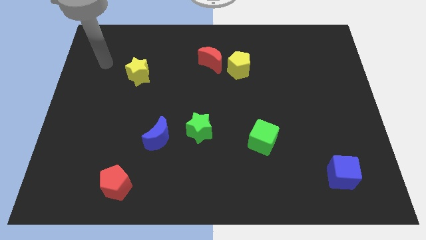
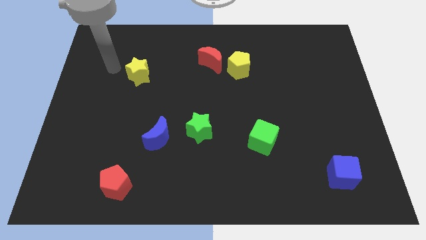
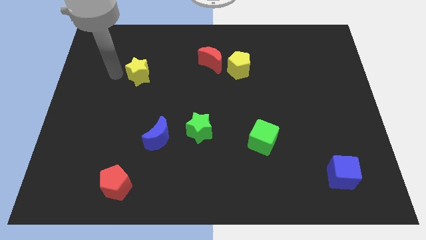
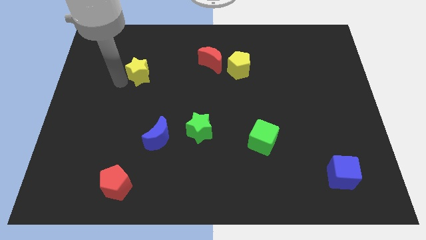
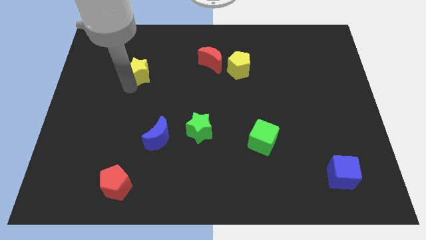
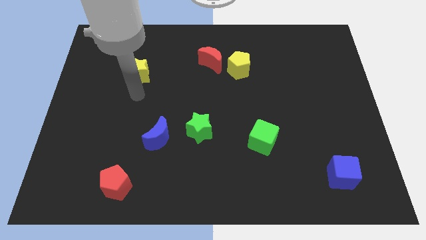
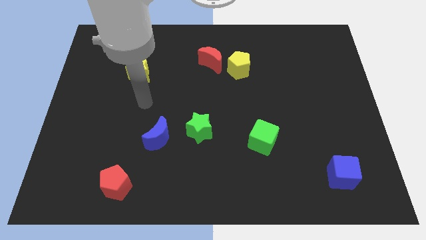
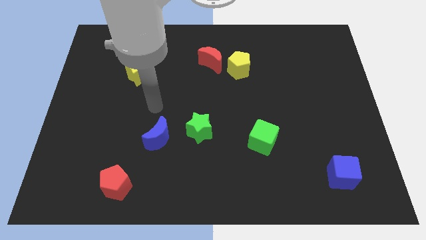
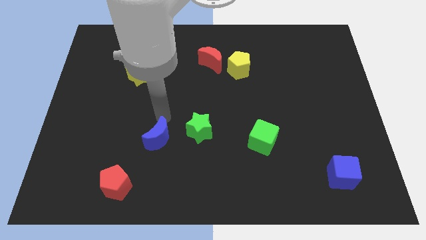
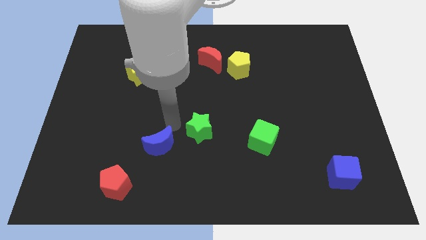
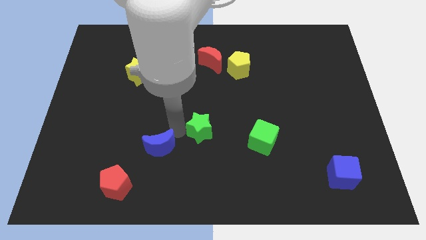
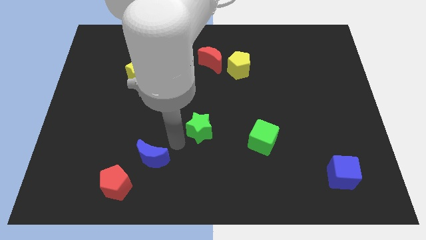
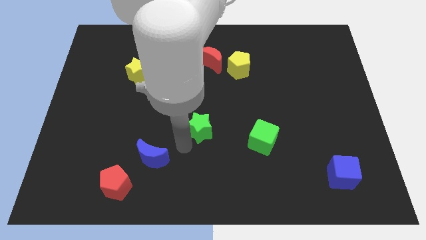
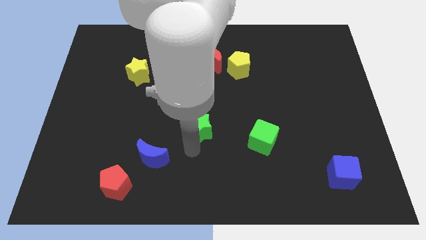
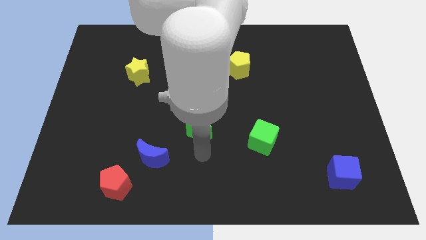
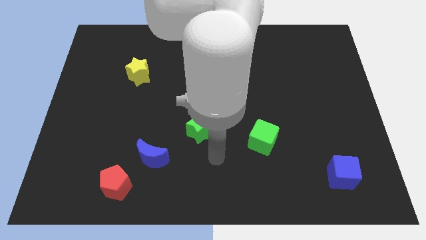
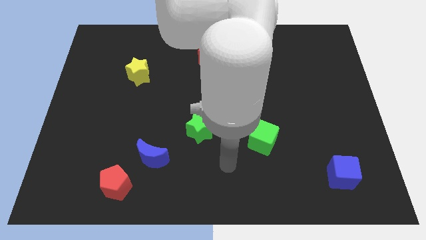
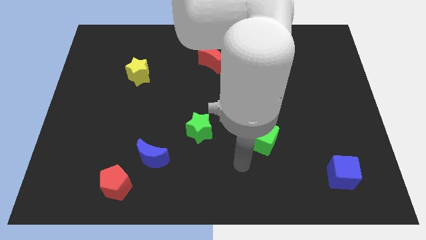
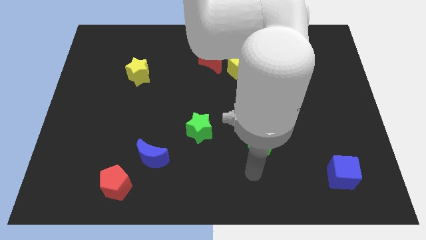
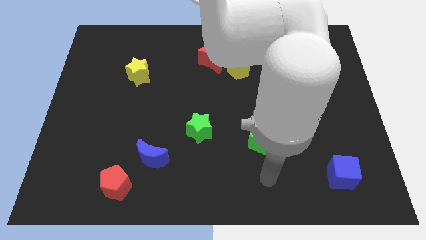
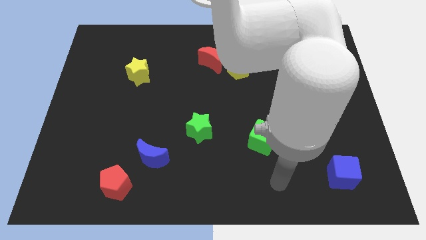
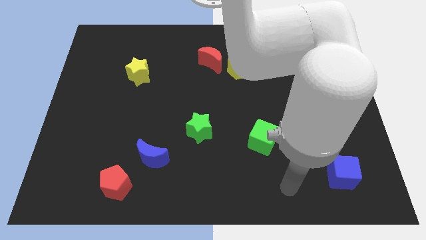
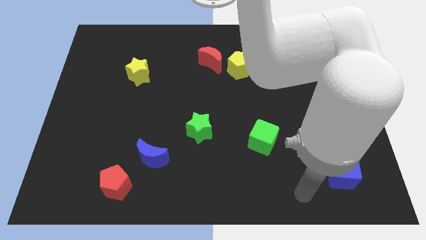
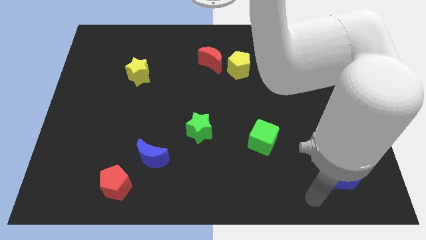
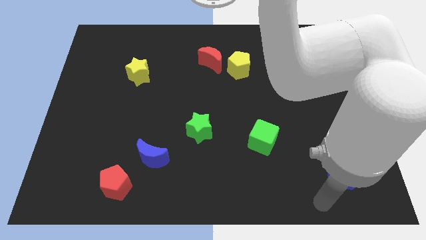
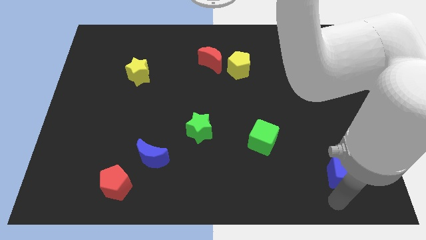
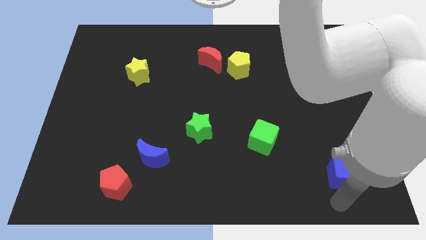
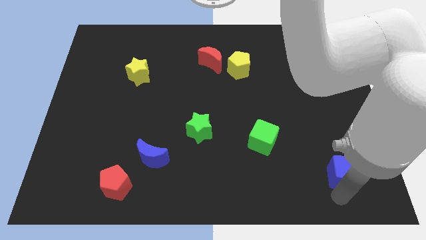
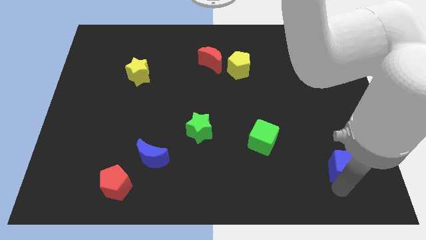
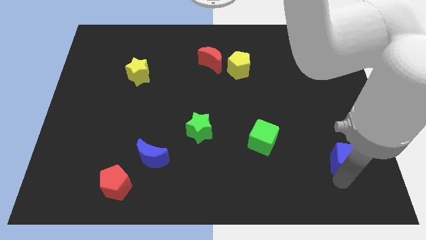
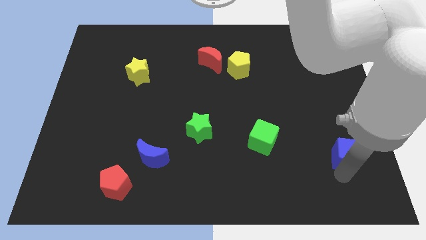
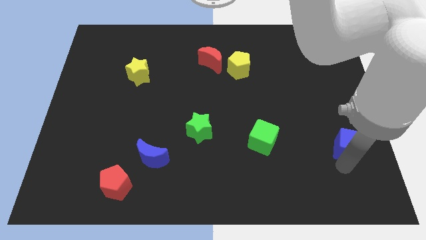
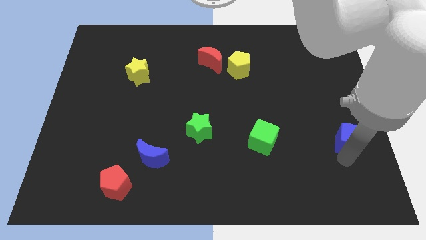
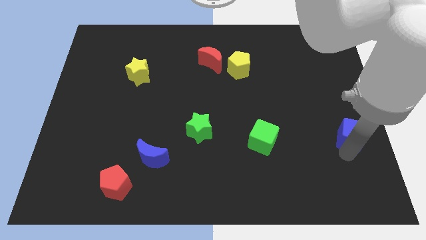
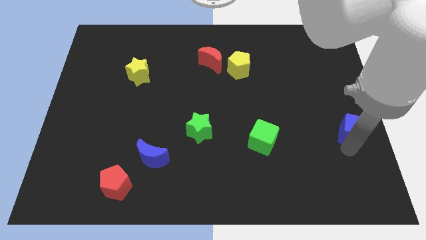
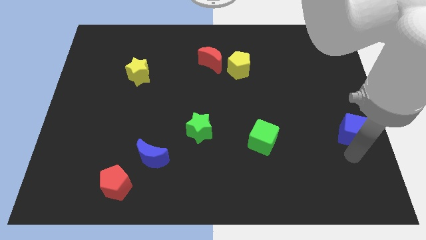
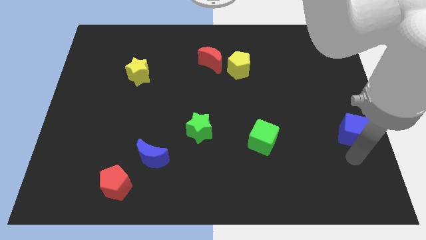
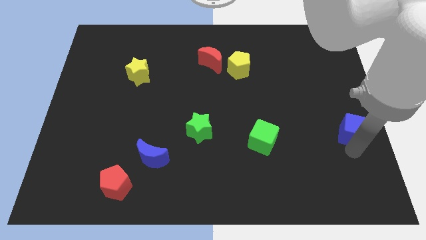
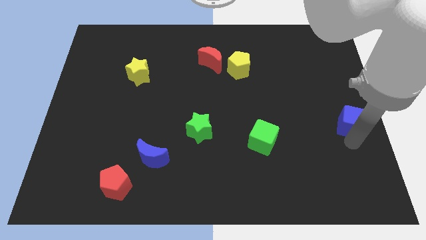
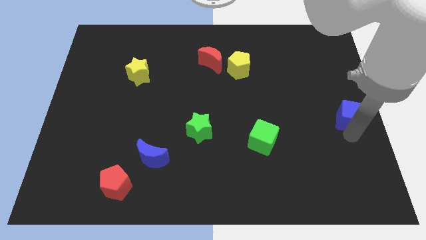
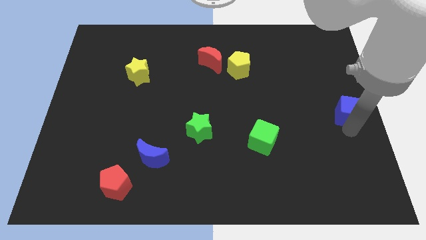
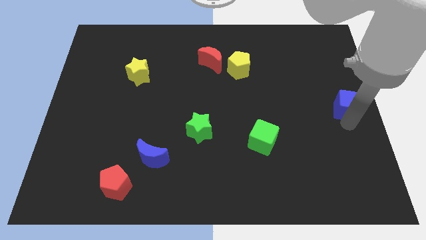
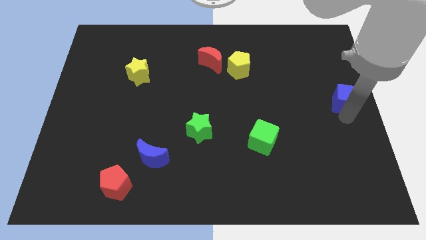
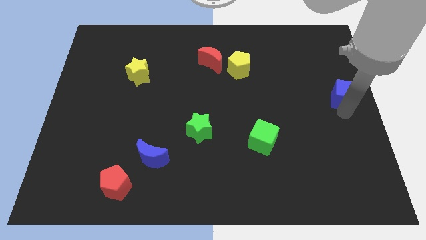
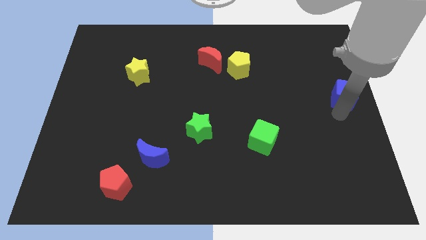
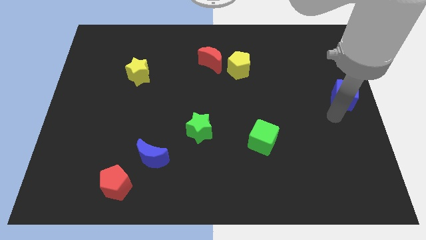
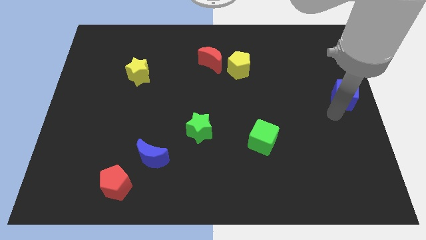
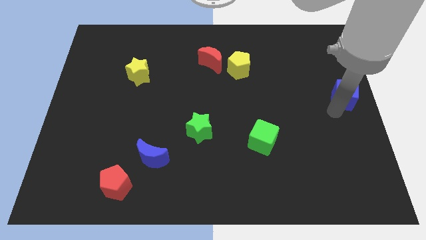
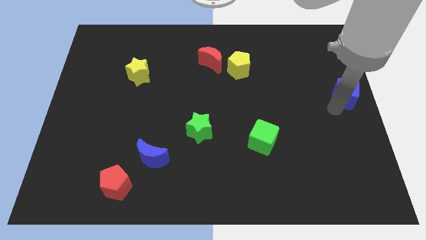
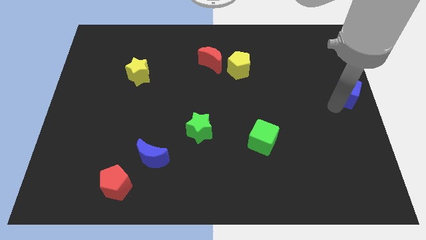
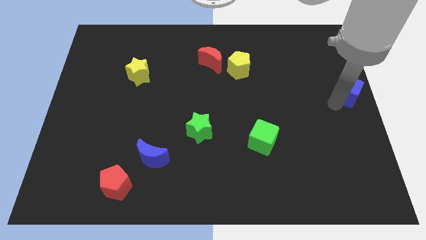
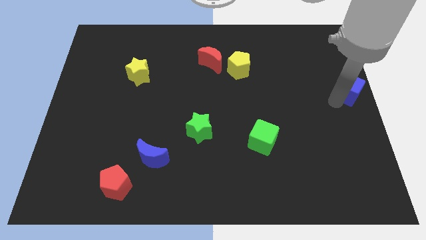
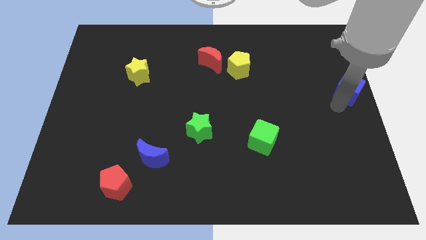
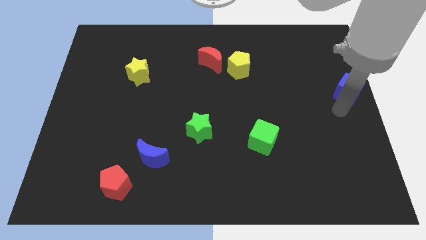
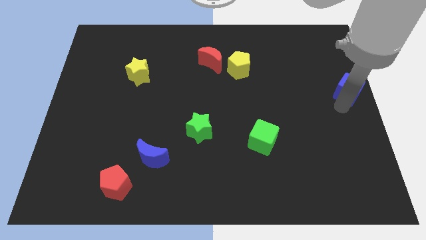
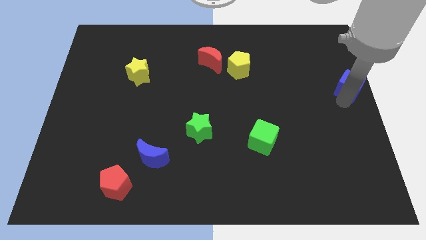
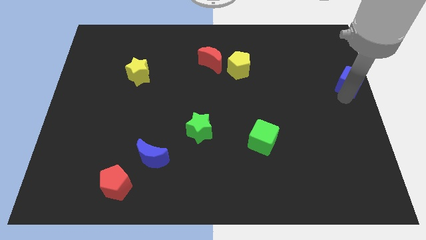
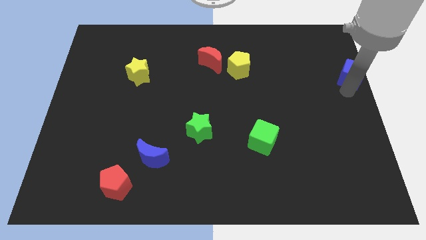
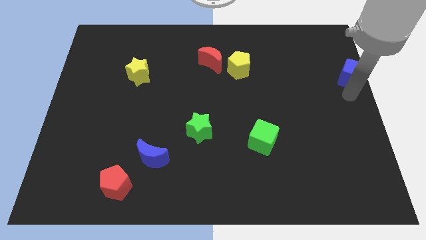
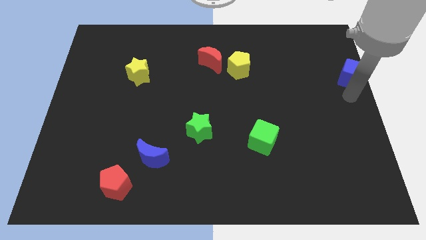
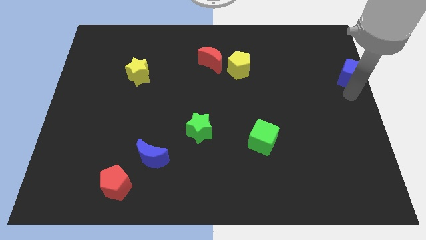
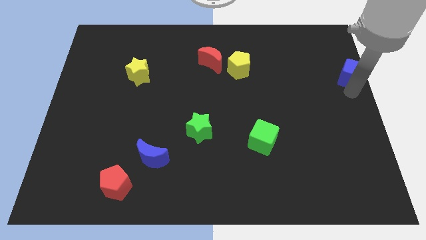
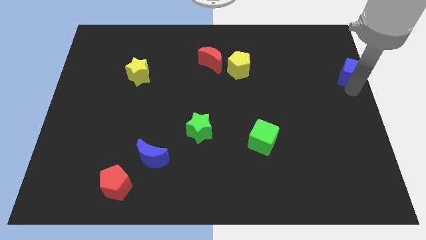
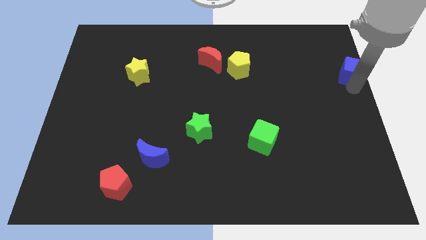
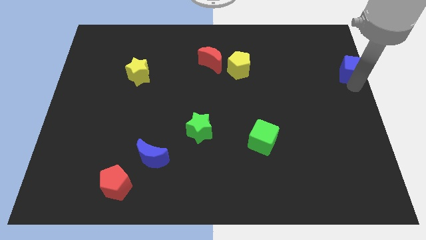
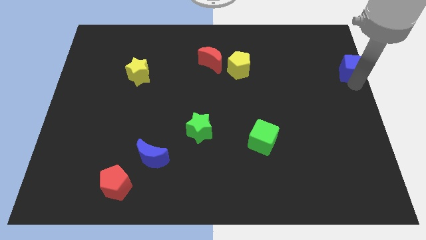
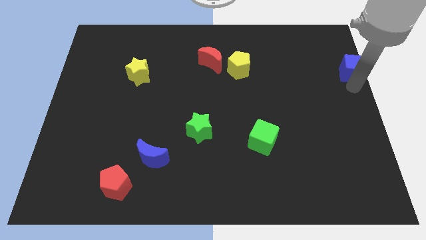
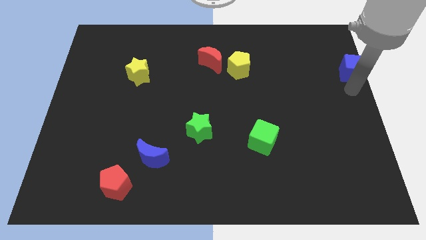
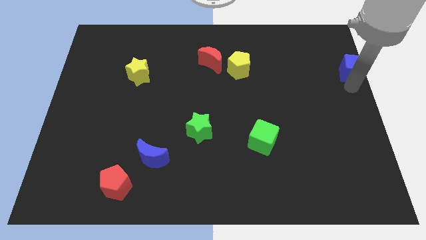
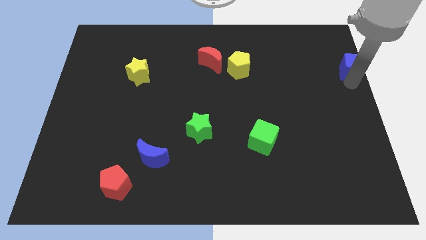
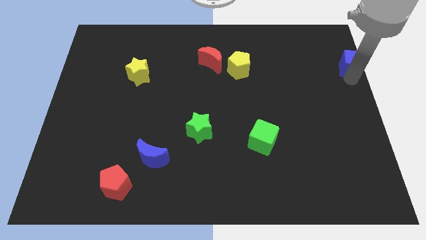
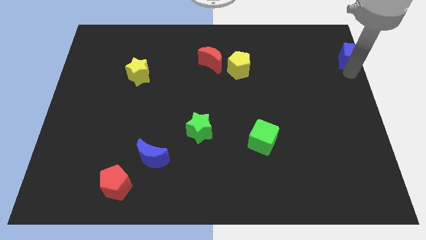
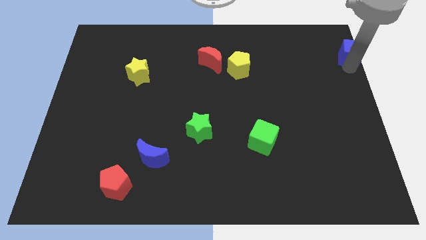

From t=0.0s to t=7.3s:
move the blue cube to the top right corner
